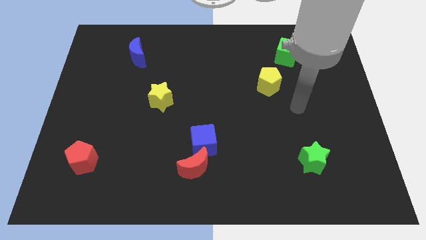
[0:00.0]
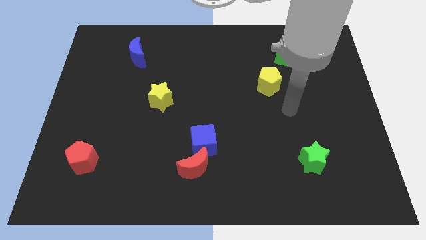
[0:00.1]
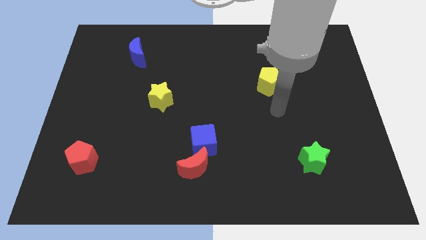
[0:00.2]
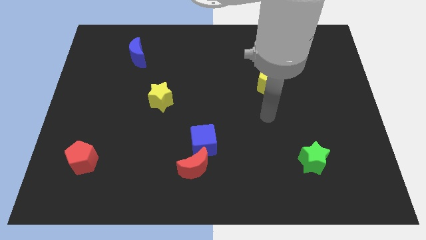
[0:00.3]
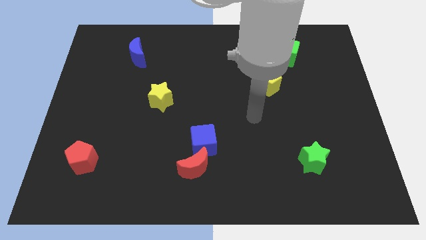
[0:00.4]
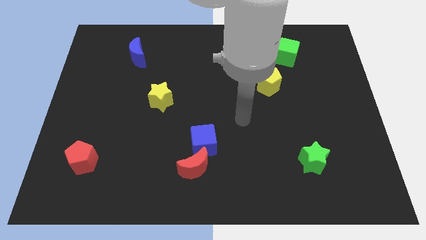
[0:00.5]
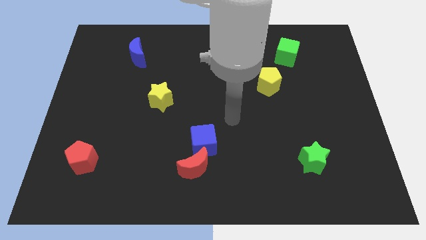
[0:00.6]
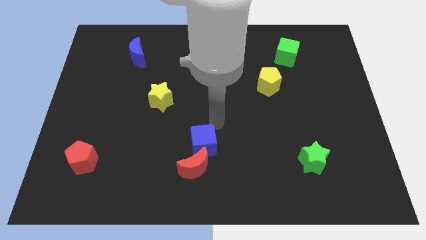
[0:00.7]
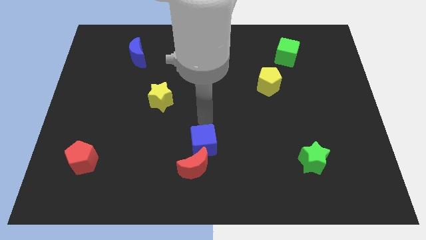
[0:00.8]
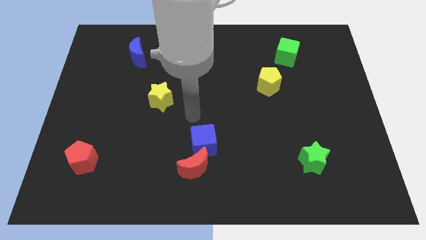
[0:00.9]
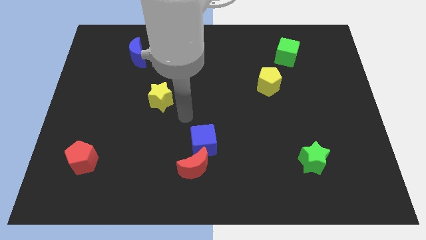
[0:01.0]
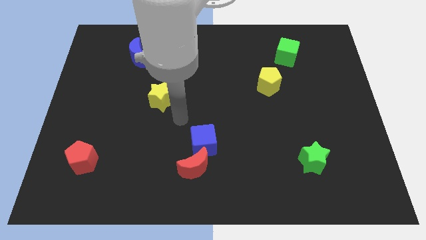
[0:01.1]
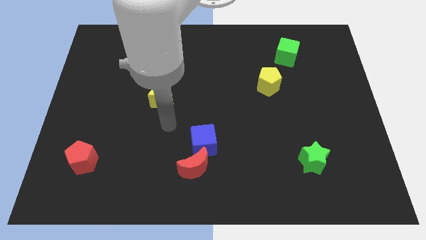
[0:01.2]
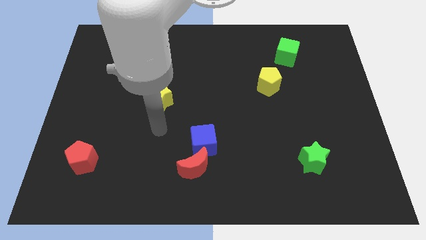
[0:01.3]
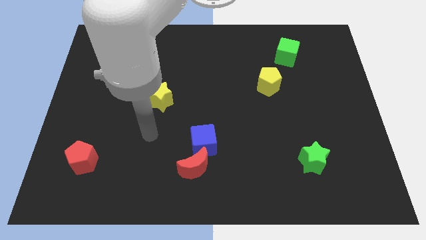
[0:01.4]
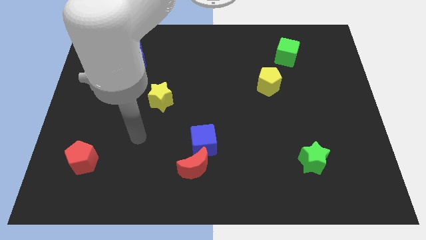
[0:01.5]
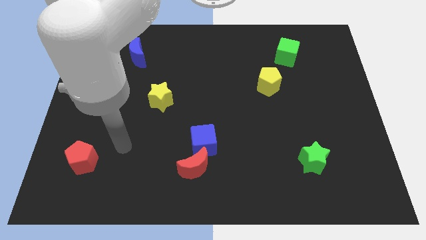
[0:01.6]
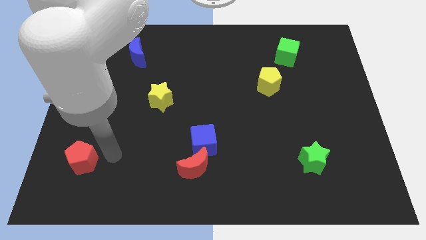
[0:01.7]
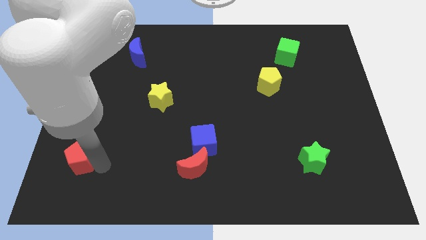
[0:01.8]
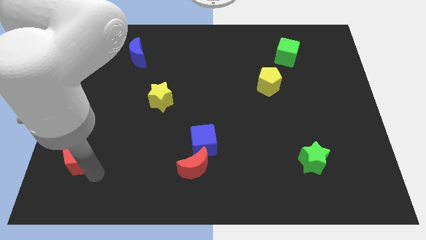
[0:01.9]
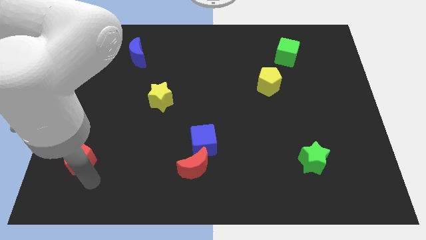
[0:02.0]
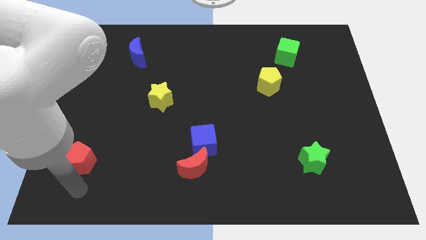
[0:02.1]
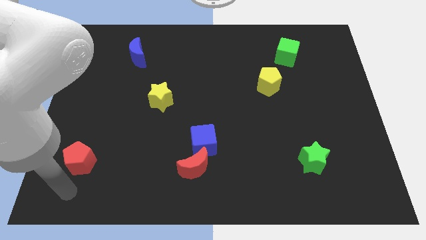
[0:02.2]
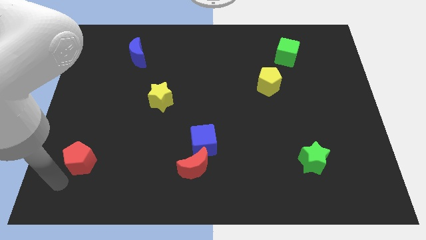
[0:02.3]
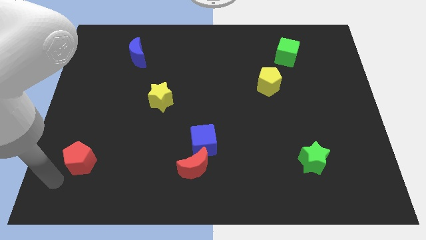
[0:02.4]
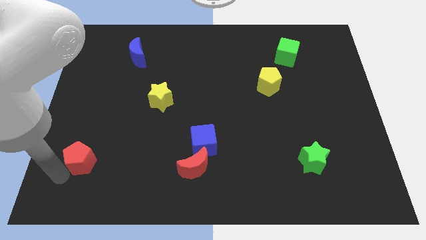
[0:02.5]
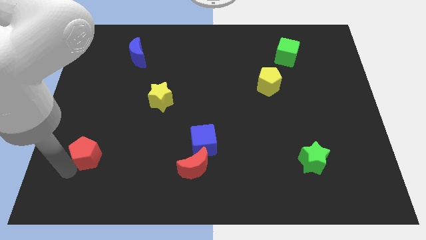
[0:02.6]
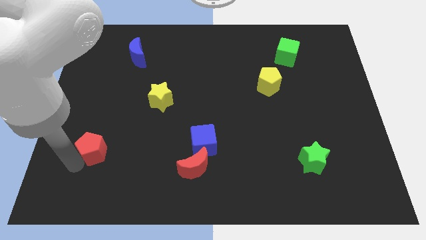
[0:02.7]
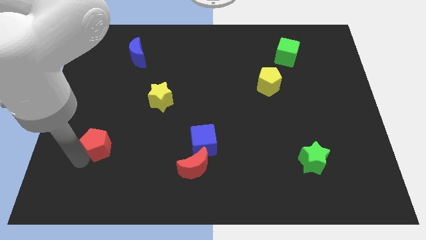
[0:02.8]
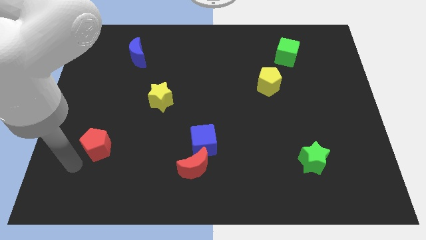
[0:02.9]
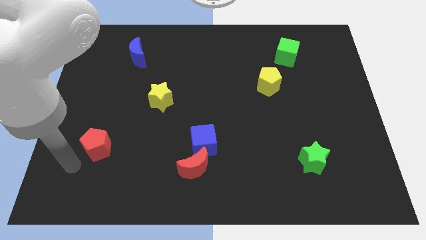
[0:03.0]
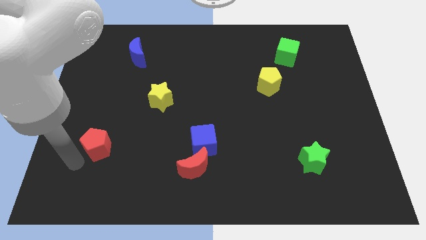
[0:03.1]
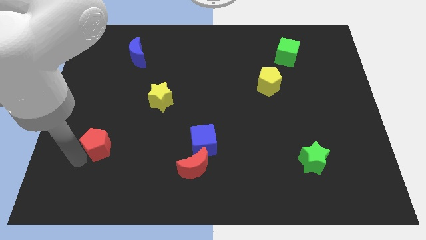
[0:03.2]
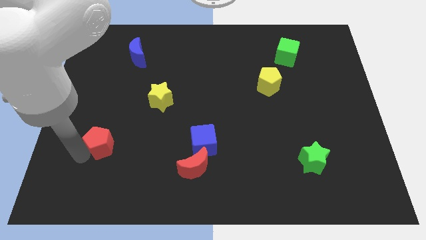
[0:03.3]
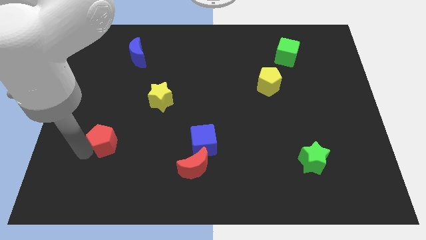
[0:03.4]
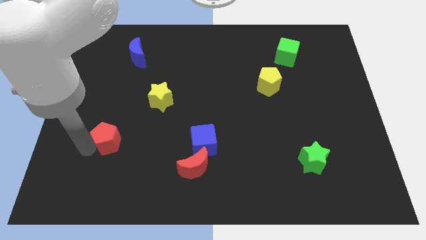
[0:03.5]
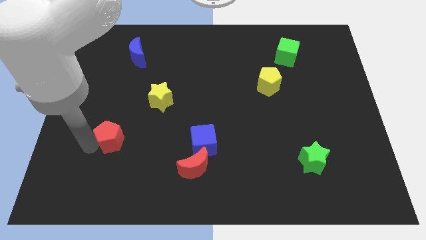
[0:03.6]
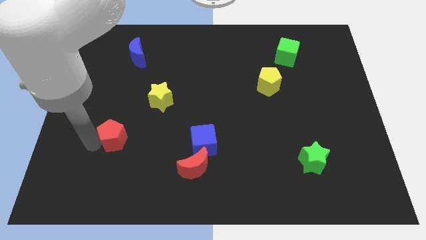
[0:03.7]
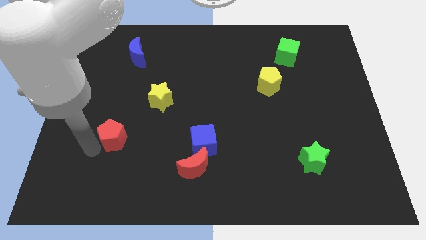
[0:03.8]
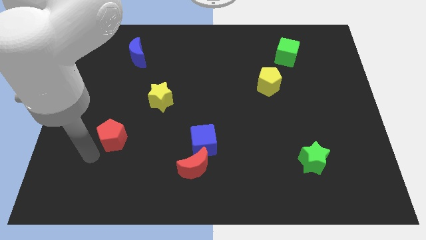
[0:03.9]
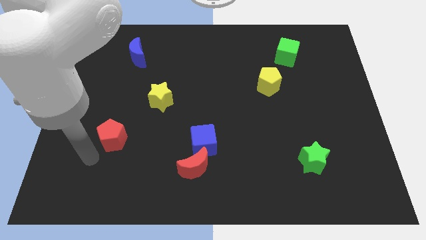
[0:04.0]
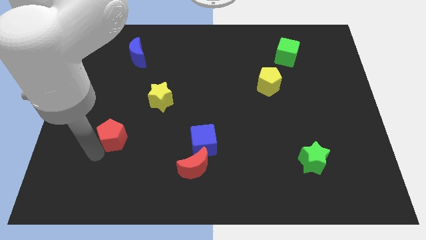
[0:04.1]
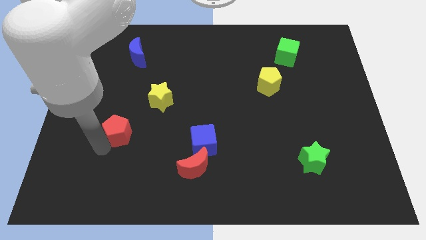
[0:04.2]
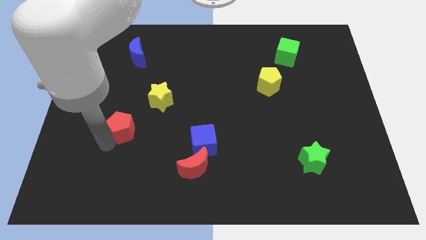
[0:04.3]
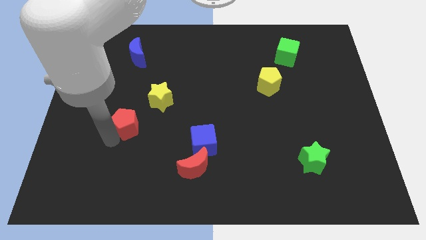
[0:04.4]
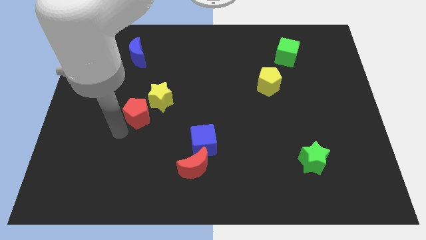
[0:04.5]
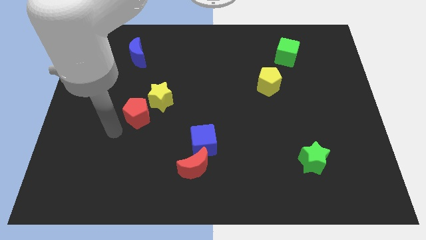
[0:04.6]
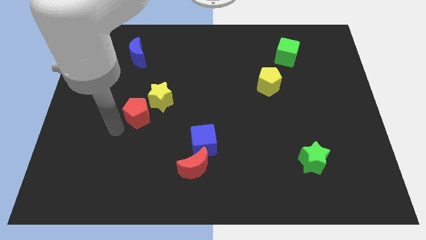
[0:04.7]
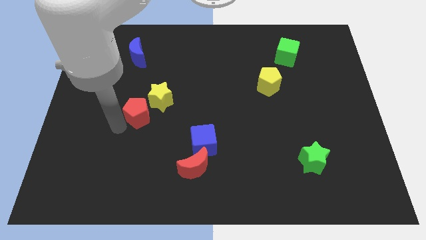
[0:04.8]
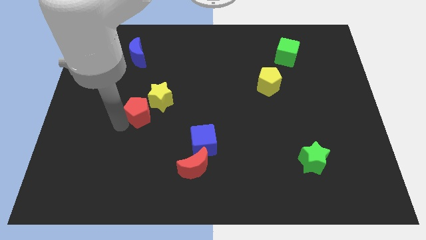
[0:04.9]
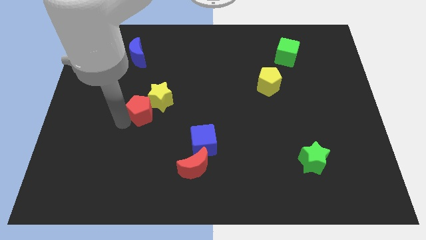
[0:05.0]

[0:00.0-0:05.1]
move the red pentagon to the yellow star

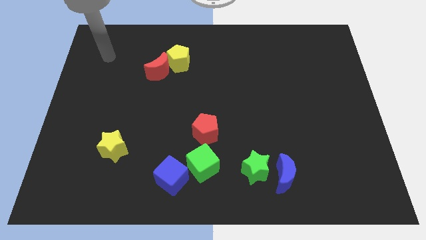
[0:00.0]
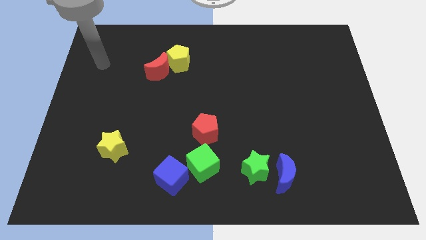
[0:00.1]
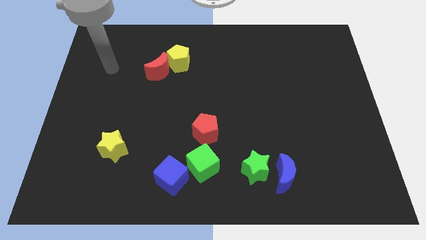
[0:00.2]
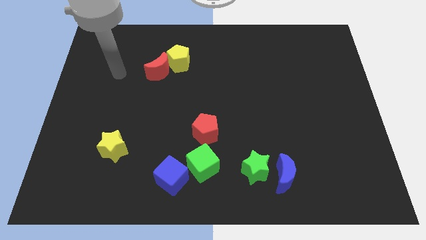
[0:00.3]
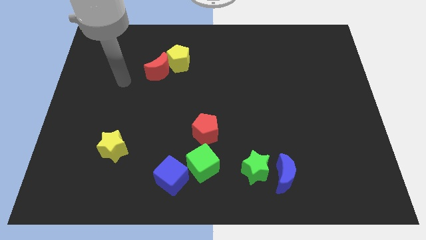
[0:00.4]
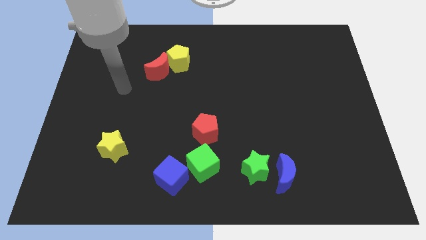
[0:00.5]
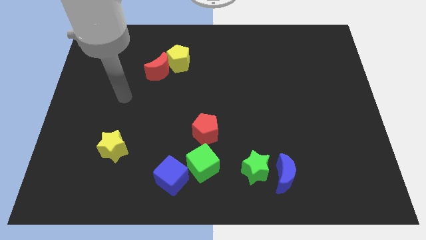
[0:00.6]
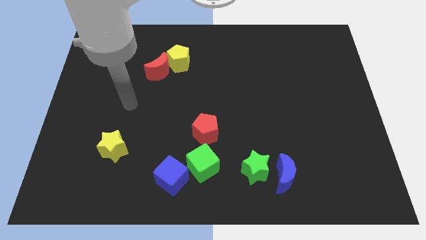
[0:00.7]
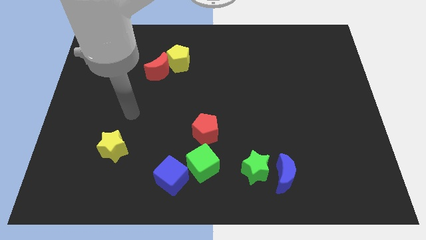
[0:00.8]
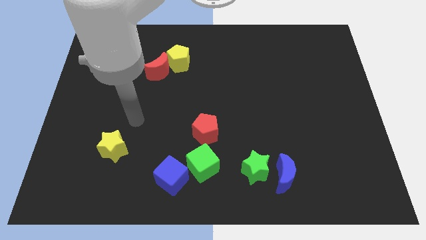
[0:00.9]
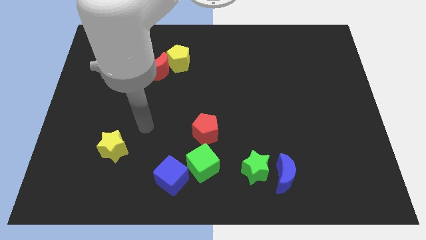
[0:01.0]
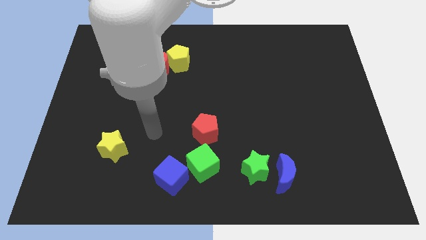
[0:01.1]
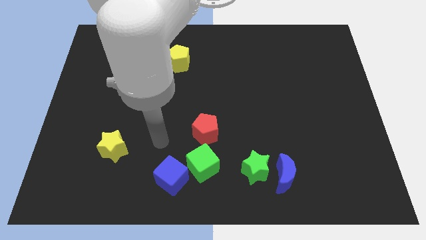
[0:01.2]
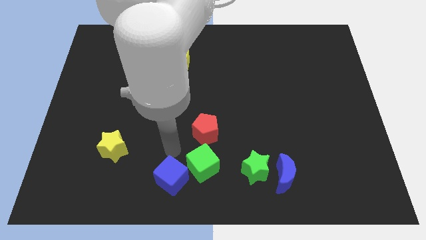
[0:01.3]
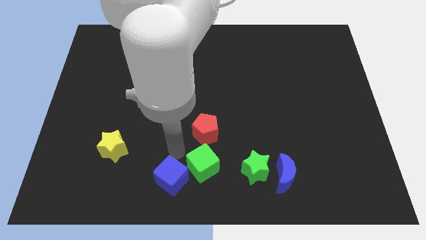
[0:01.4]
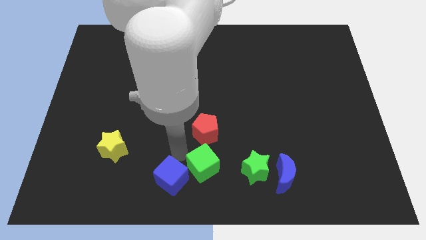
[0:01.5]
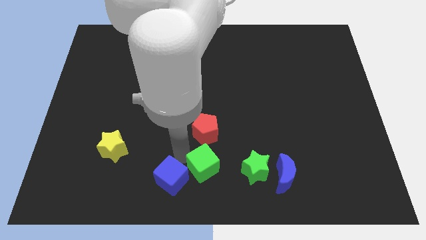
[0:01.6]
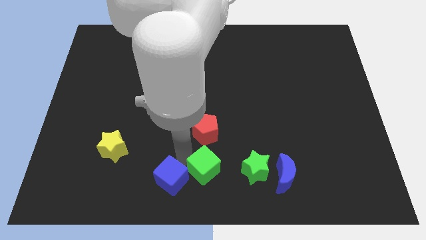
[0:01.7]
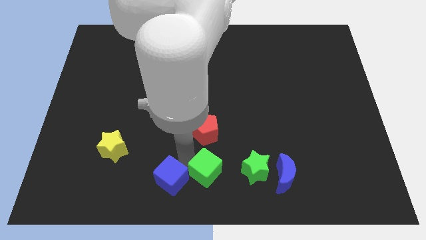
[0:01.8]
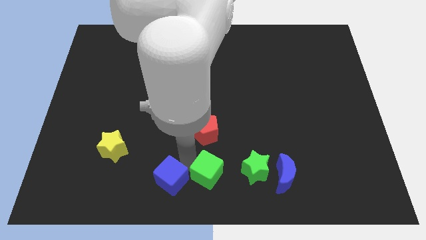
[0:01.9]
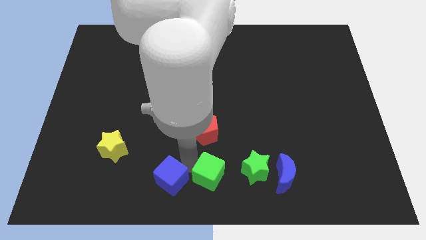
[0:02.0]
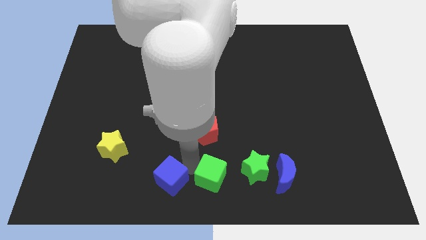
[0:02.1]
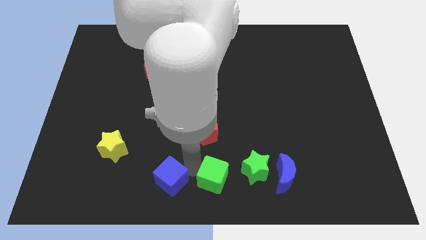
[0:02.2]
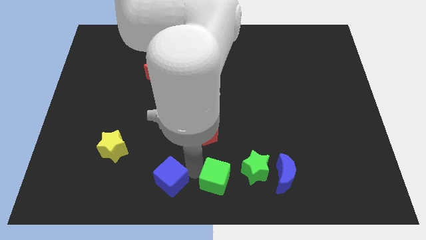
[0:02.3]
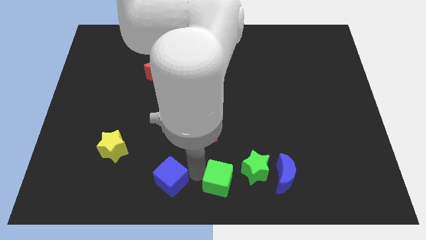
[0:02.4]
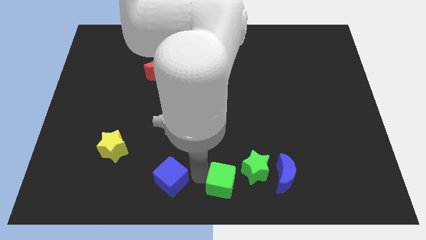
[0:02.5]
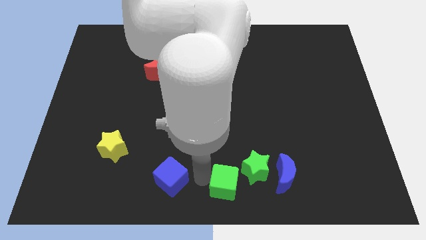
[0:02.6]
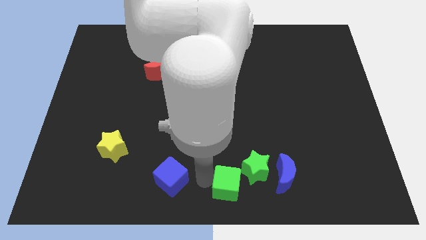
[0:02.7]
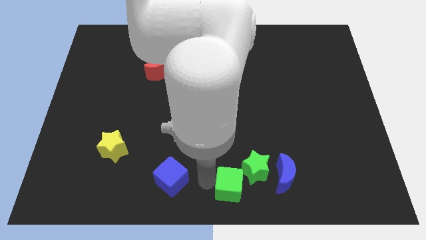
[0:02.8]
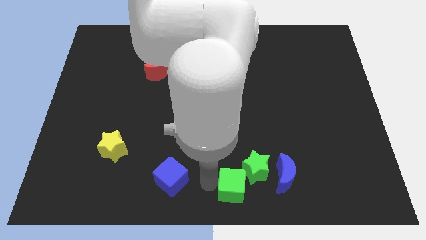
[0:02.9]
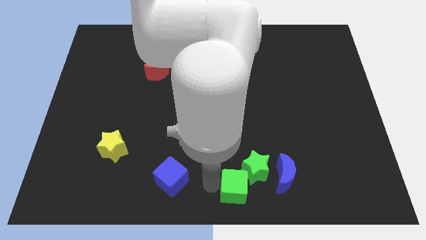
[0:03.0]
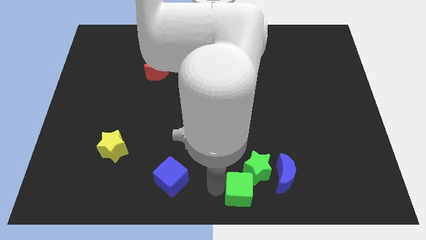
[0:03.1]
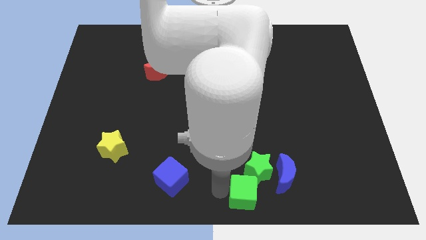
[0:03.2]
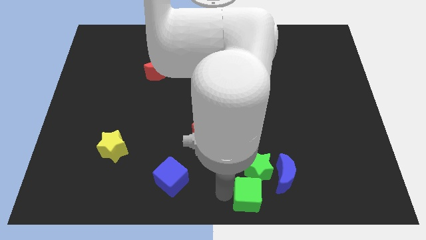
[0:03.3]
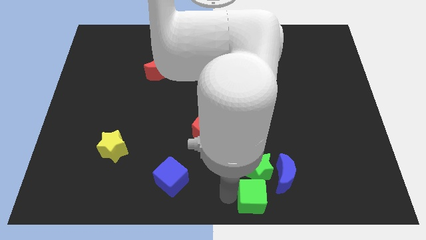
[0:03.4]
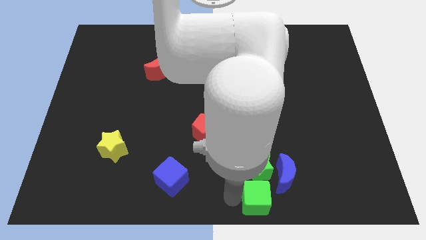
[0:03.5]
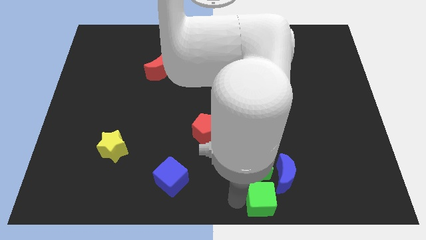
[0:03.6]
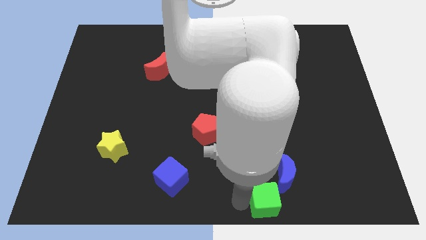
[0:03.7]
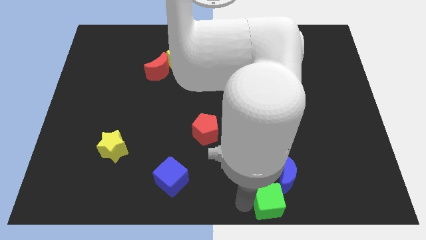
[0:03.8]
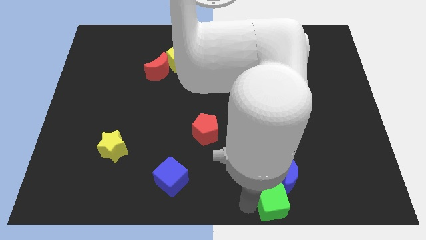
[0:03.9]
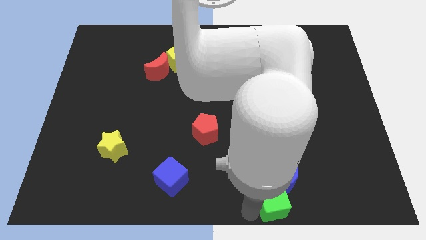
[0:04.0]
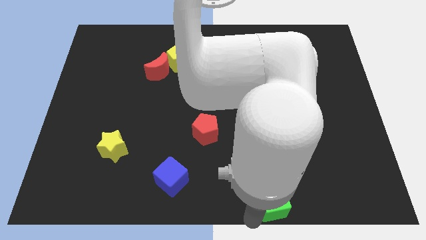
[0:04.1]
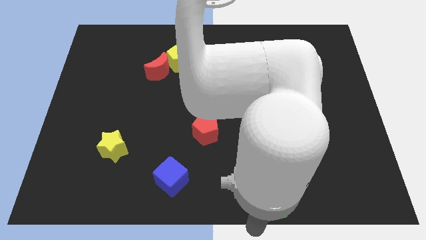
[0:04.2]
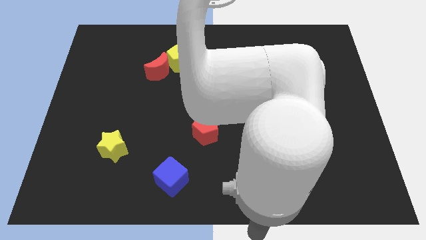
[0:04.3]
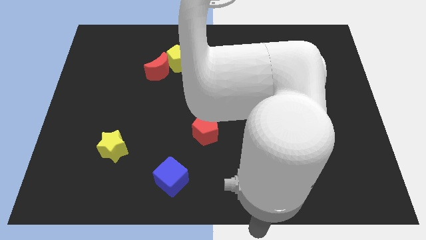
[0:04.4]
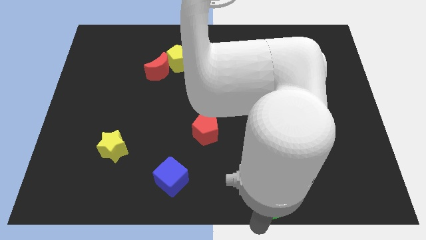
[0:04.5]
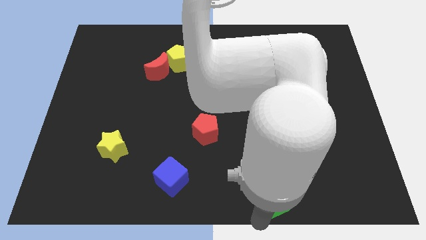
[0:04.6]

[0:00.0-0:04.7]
push the green cube next to the blue moon
